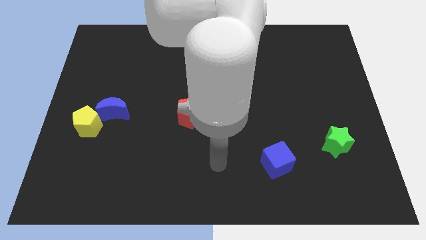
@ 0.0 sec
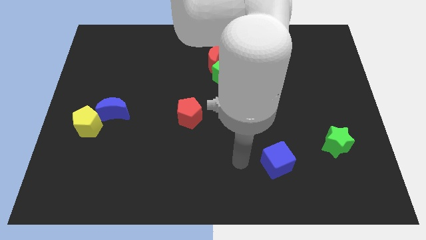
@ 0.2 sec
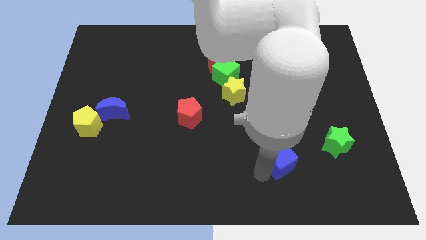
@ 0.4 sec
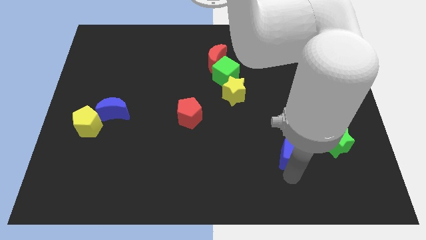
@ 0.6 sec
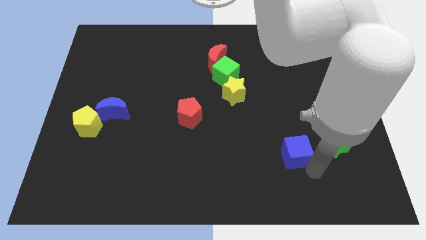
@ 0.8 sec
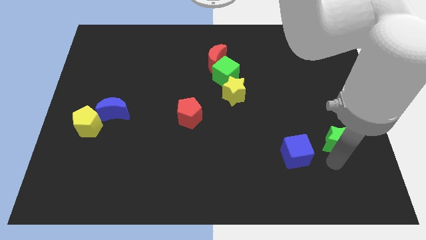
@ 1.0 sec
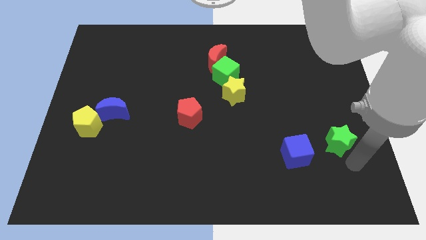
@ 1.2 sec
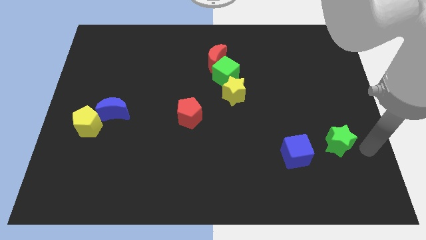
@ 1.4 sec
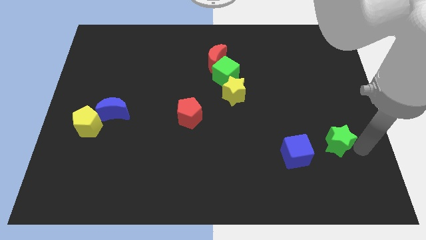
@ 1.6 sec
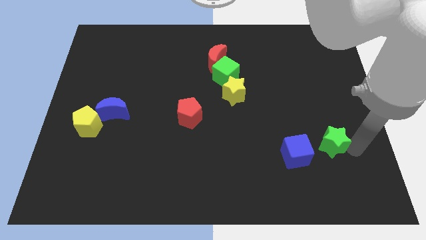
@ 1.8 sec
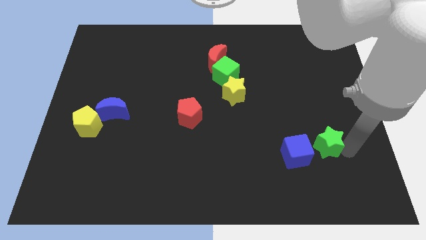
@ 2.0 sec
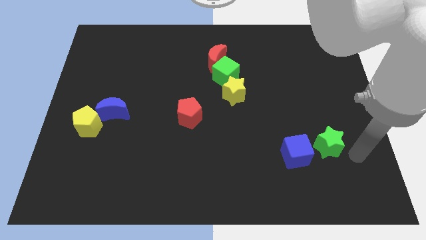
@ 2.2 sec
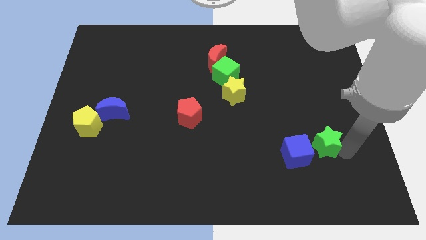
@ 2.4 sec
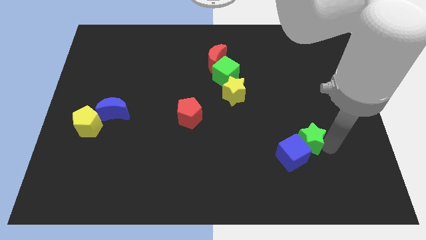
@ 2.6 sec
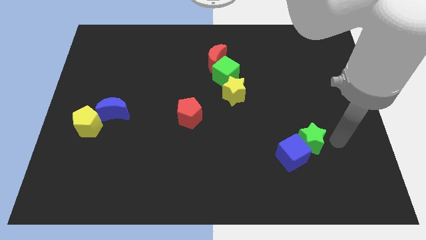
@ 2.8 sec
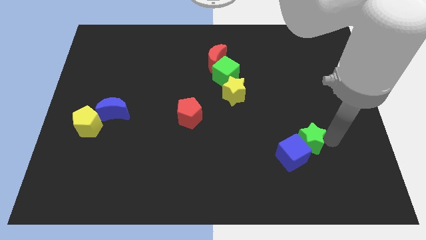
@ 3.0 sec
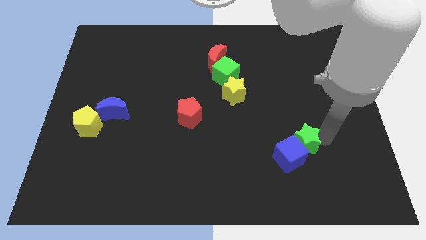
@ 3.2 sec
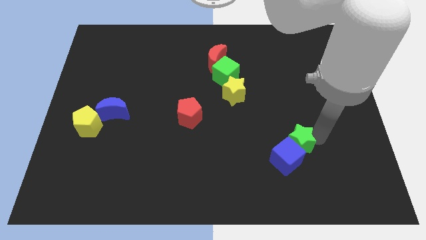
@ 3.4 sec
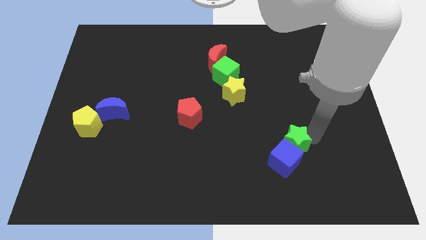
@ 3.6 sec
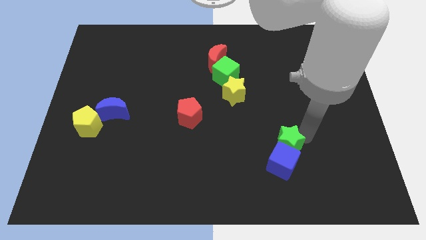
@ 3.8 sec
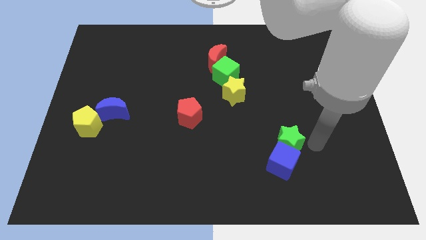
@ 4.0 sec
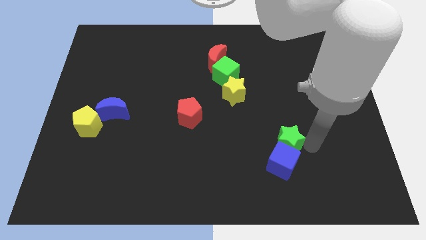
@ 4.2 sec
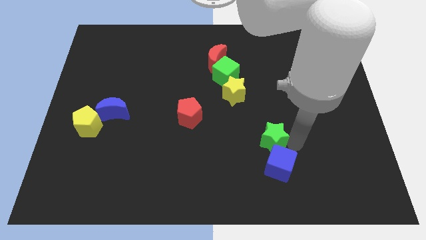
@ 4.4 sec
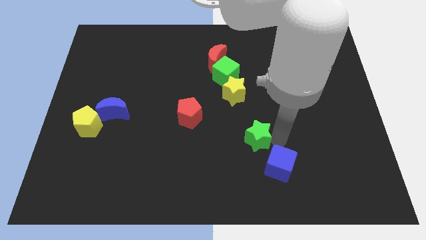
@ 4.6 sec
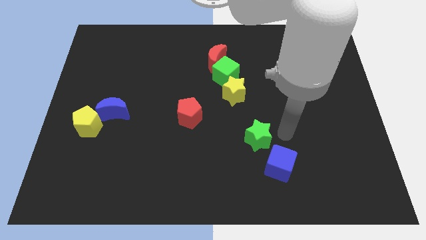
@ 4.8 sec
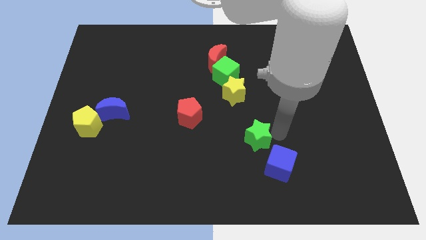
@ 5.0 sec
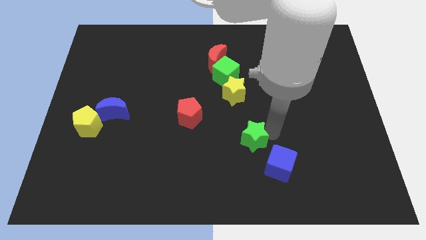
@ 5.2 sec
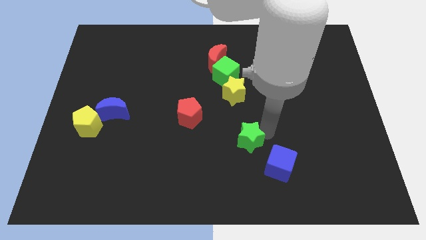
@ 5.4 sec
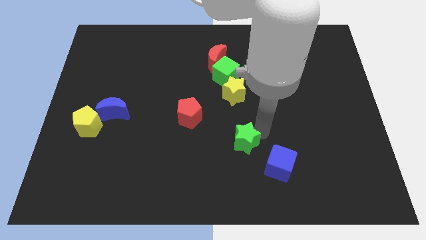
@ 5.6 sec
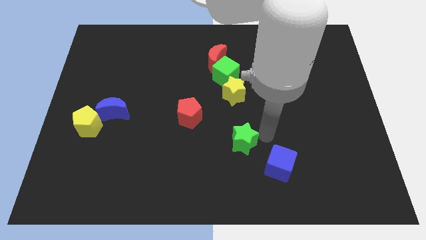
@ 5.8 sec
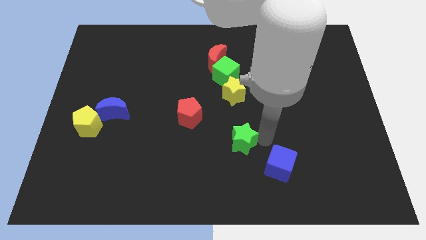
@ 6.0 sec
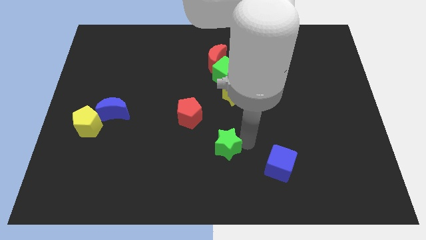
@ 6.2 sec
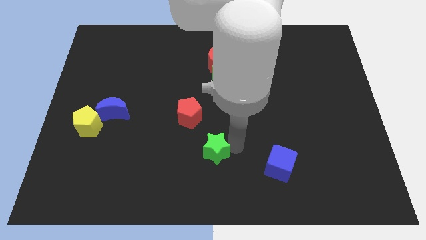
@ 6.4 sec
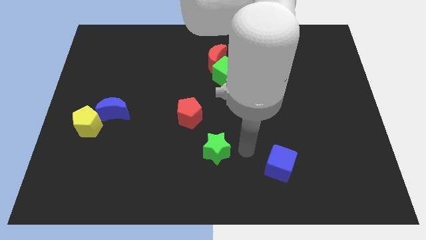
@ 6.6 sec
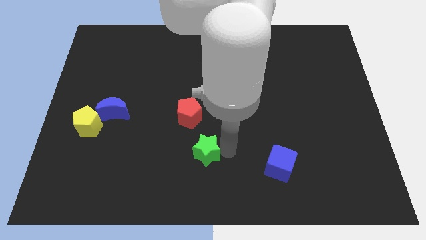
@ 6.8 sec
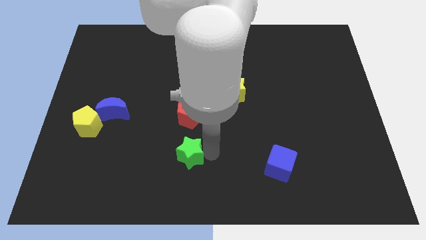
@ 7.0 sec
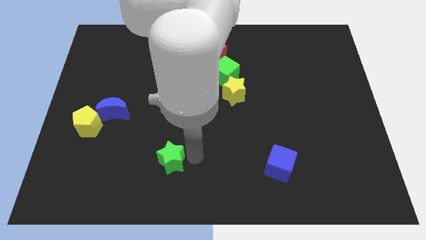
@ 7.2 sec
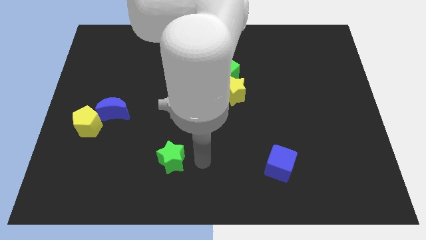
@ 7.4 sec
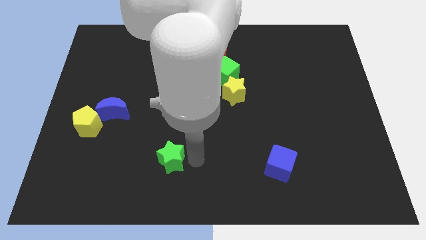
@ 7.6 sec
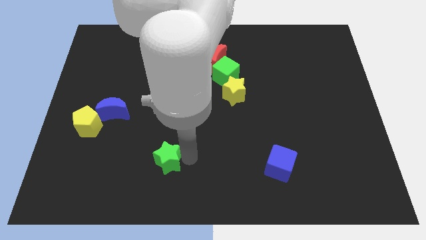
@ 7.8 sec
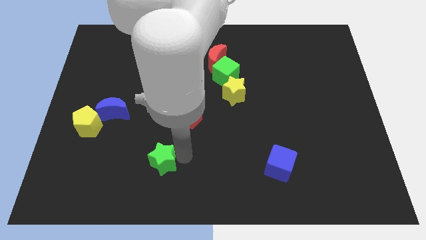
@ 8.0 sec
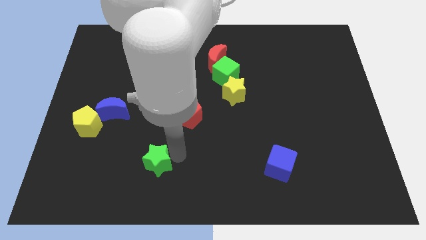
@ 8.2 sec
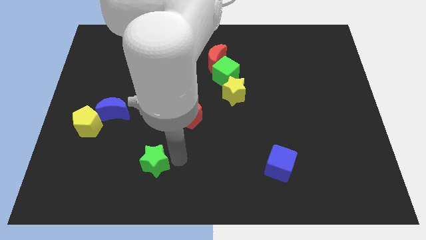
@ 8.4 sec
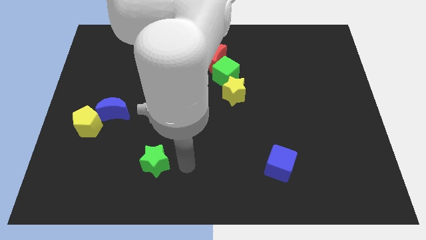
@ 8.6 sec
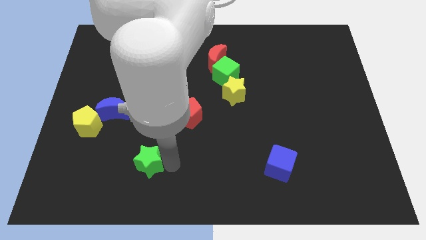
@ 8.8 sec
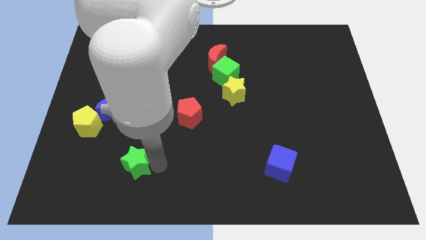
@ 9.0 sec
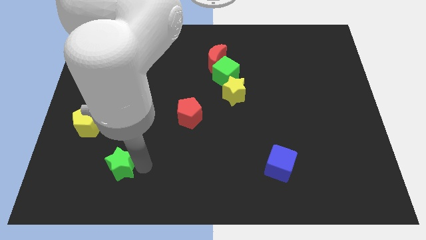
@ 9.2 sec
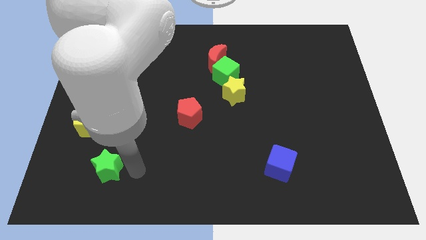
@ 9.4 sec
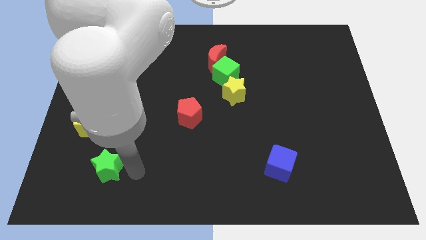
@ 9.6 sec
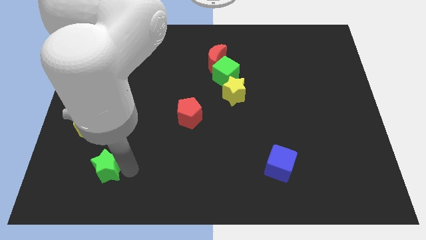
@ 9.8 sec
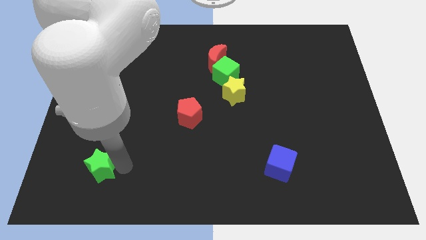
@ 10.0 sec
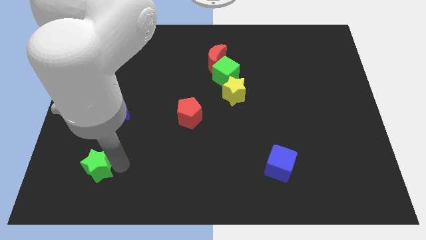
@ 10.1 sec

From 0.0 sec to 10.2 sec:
put the green star to the bottom side of the yellow pentagon

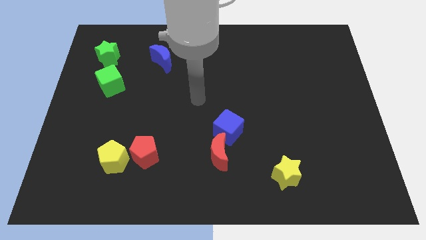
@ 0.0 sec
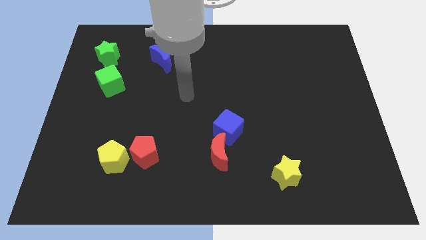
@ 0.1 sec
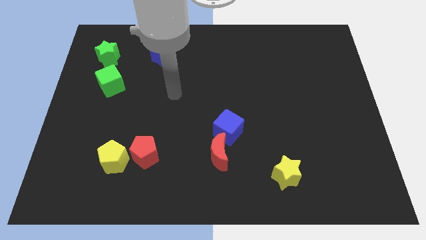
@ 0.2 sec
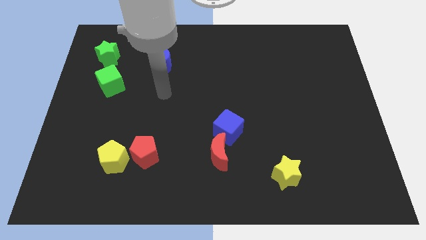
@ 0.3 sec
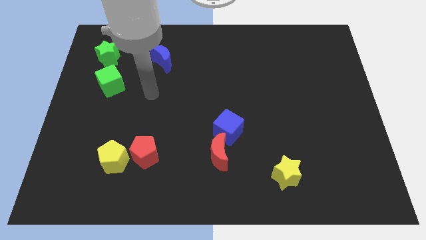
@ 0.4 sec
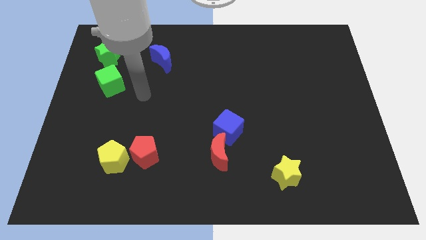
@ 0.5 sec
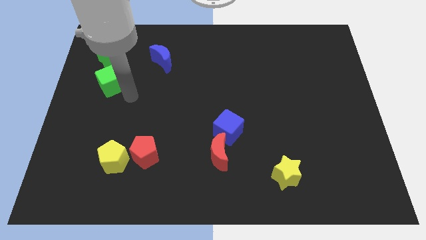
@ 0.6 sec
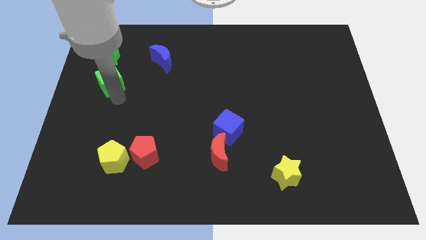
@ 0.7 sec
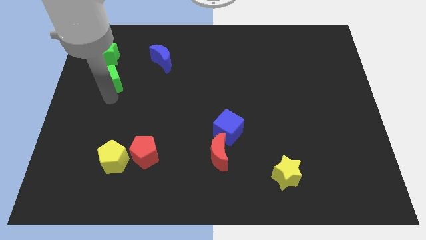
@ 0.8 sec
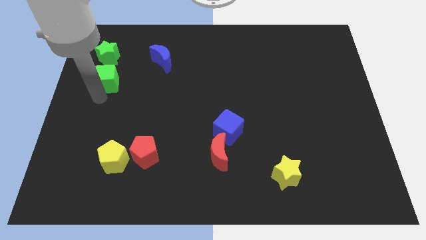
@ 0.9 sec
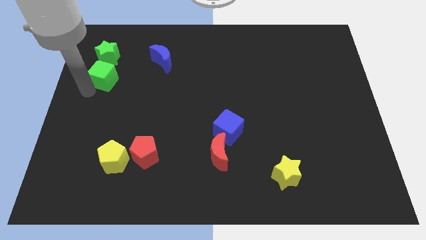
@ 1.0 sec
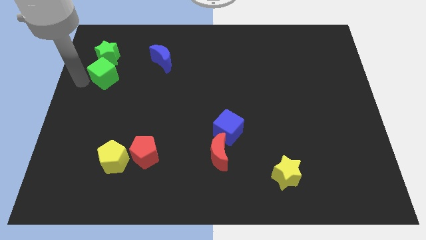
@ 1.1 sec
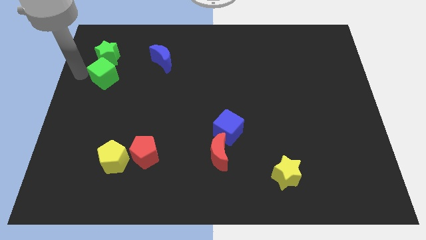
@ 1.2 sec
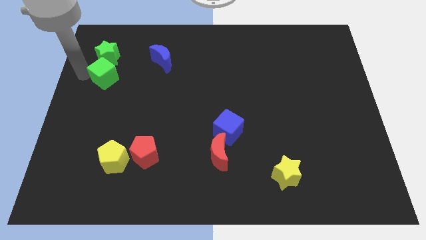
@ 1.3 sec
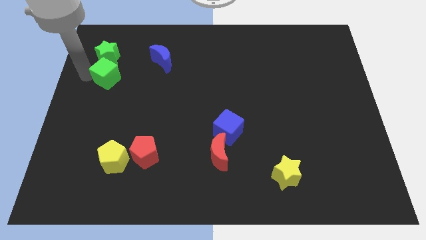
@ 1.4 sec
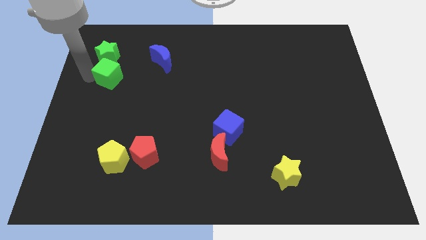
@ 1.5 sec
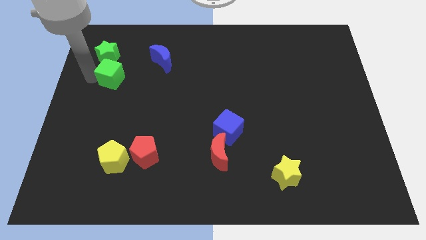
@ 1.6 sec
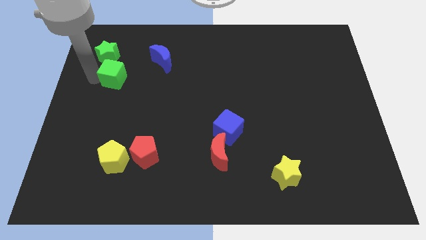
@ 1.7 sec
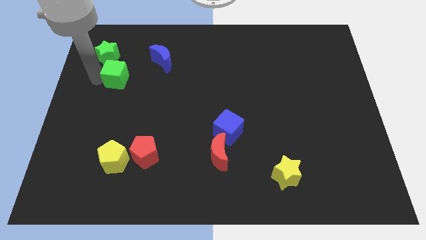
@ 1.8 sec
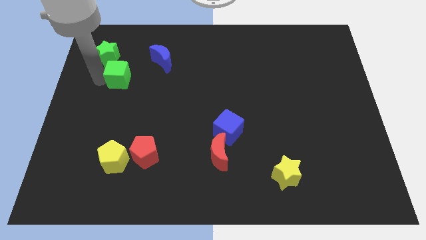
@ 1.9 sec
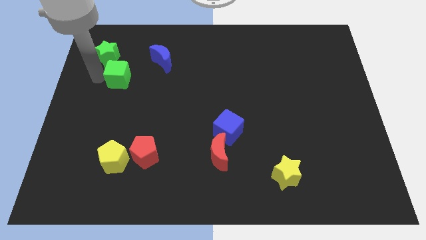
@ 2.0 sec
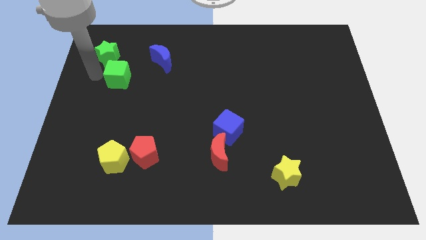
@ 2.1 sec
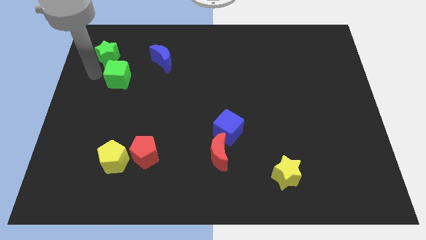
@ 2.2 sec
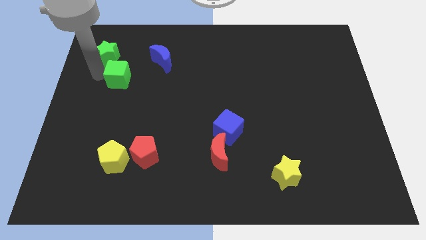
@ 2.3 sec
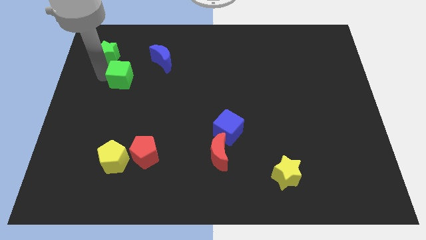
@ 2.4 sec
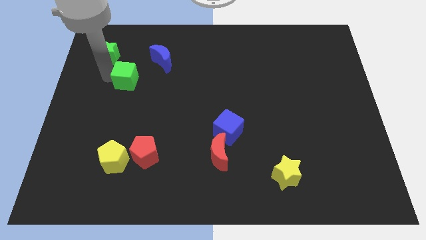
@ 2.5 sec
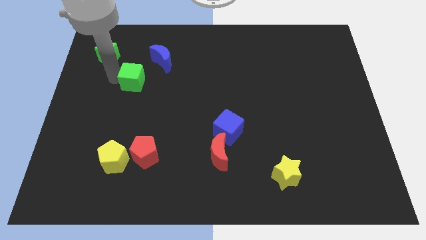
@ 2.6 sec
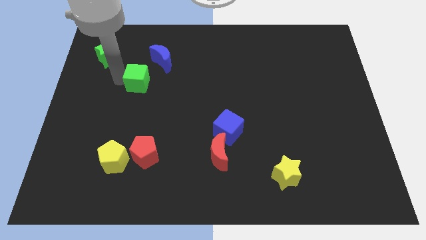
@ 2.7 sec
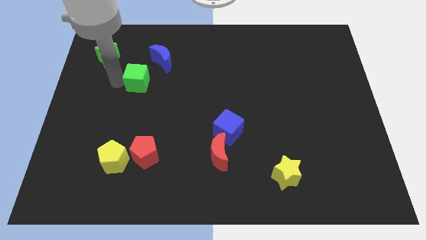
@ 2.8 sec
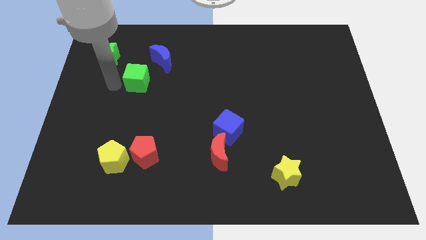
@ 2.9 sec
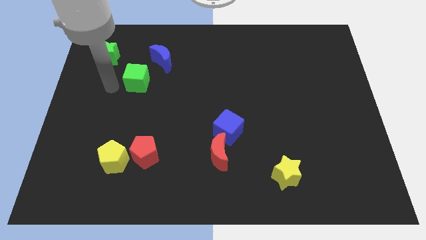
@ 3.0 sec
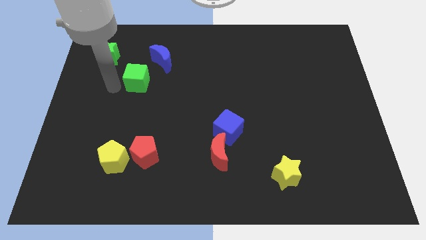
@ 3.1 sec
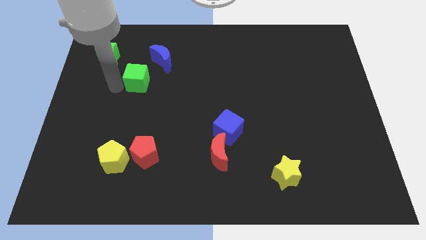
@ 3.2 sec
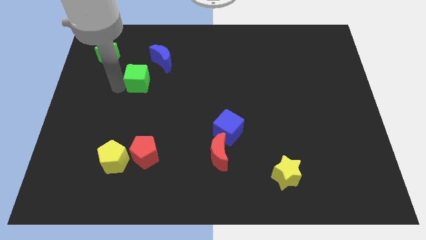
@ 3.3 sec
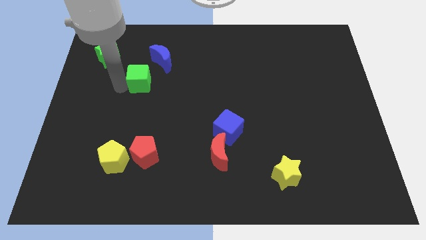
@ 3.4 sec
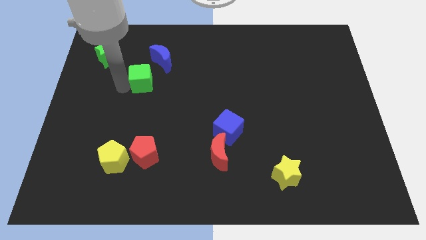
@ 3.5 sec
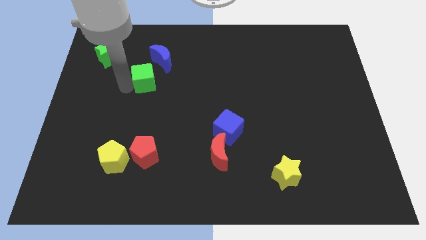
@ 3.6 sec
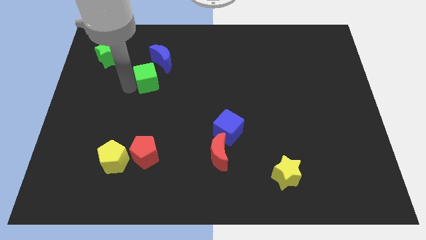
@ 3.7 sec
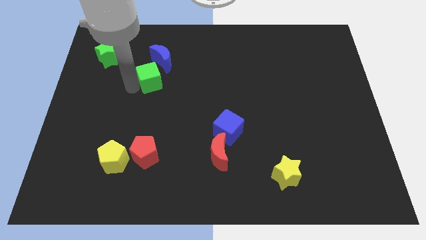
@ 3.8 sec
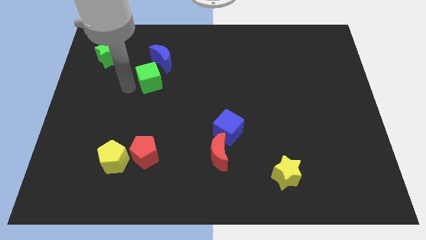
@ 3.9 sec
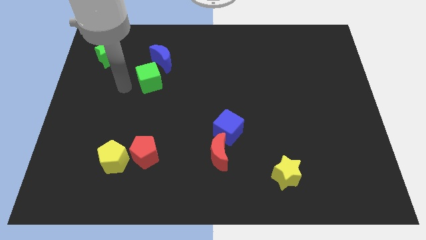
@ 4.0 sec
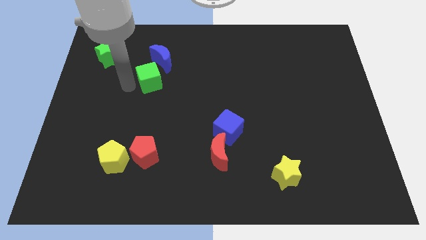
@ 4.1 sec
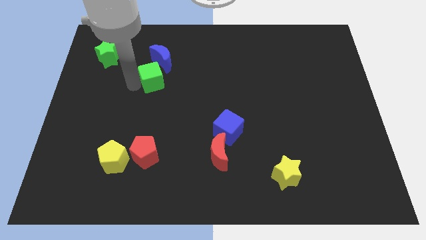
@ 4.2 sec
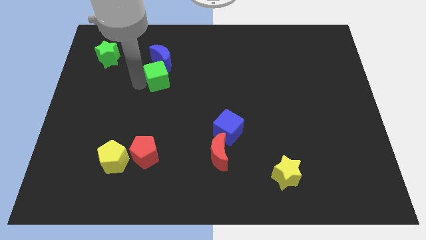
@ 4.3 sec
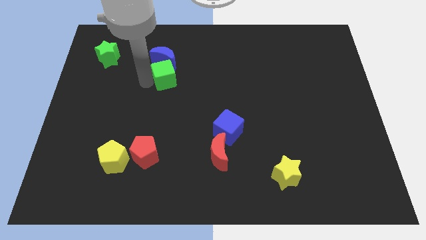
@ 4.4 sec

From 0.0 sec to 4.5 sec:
push the green cube to the bottom right side of the blue moon
